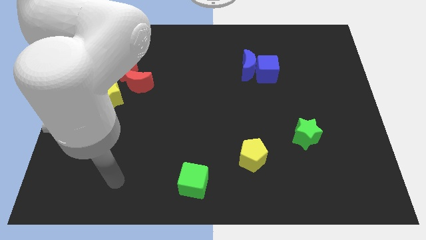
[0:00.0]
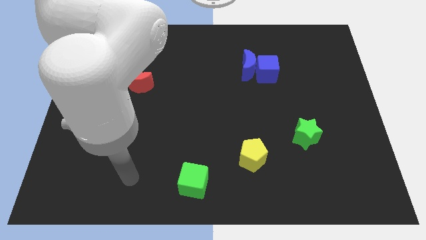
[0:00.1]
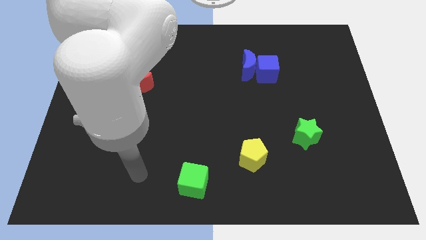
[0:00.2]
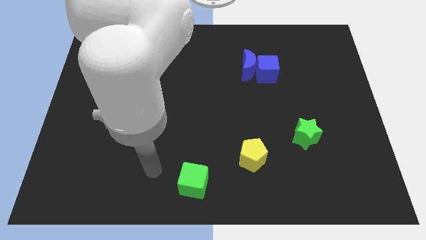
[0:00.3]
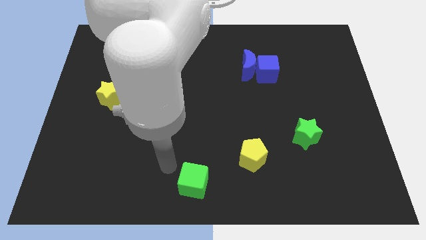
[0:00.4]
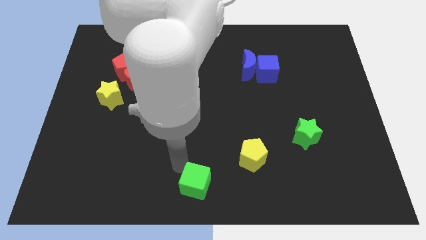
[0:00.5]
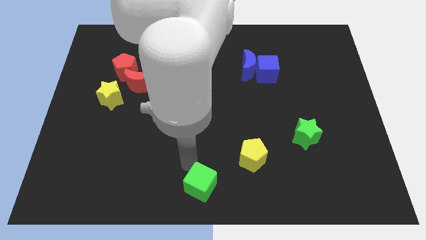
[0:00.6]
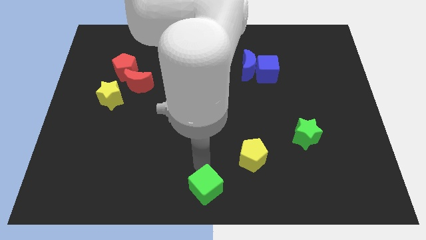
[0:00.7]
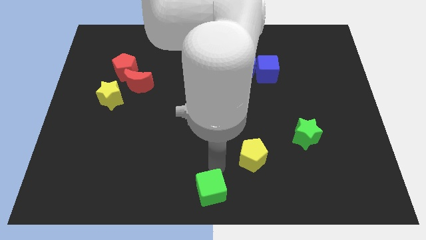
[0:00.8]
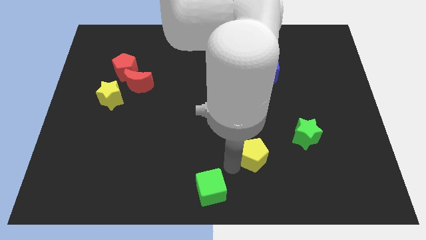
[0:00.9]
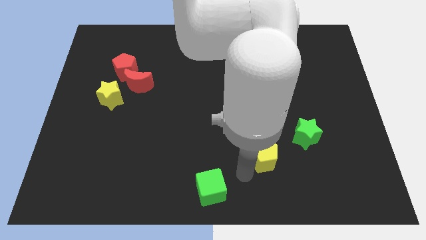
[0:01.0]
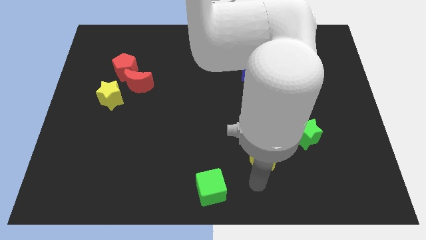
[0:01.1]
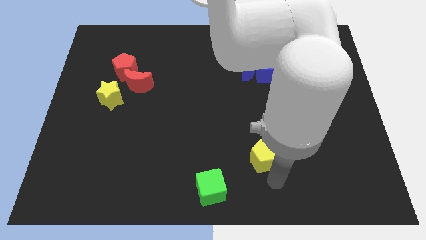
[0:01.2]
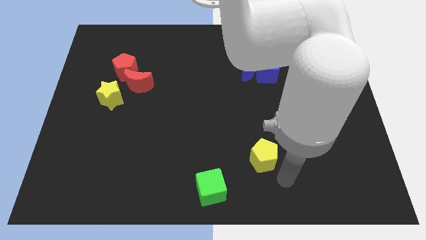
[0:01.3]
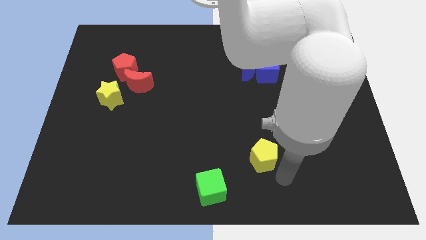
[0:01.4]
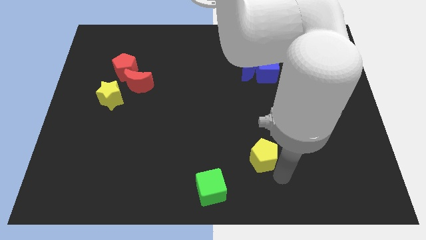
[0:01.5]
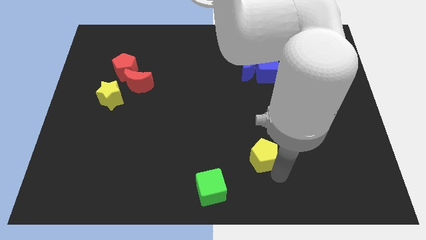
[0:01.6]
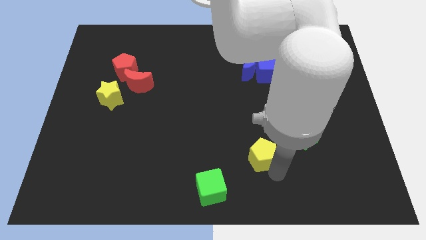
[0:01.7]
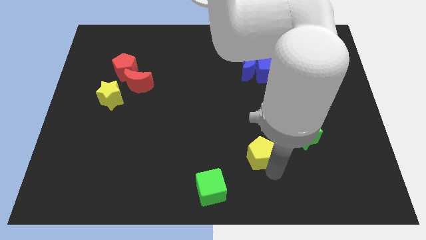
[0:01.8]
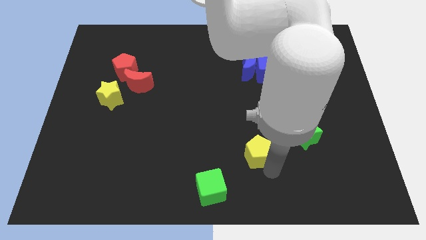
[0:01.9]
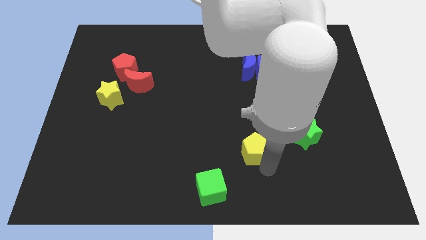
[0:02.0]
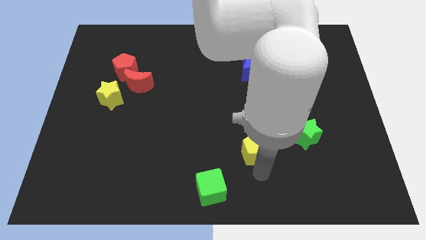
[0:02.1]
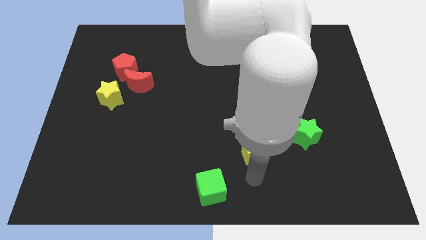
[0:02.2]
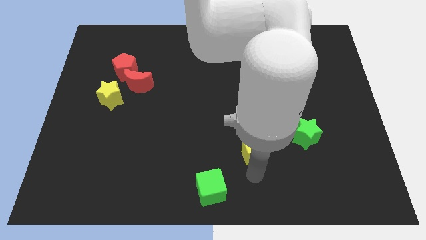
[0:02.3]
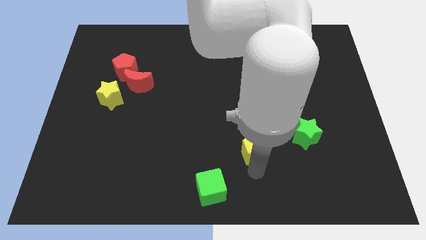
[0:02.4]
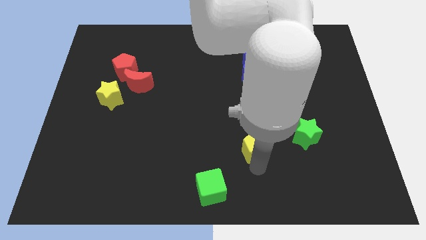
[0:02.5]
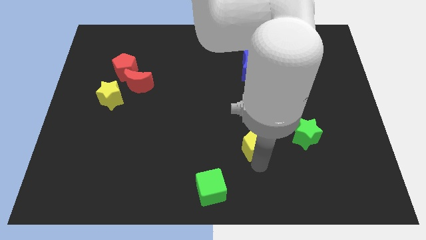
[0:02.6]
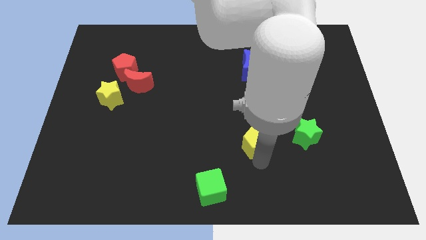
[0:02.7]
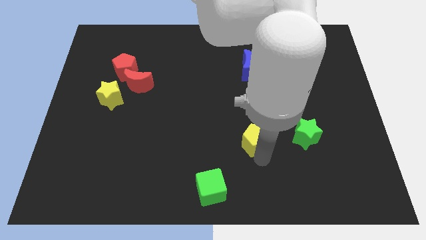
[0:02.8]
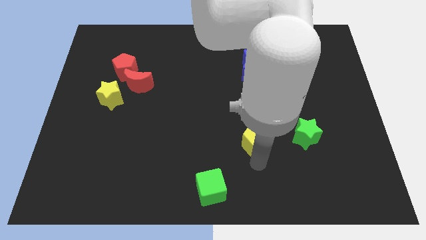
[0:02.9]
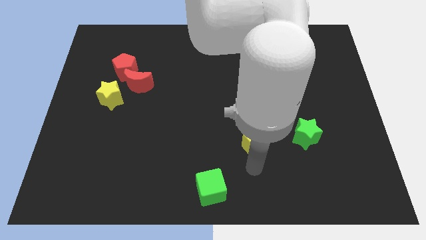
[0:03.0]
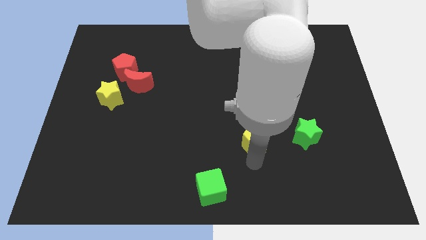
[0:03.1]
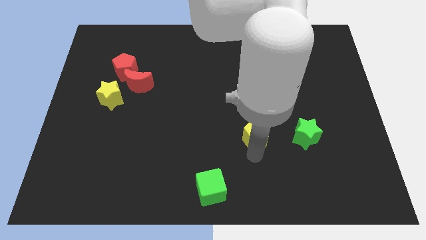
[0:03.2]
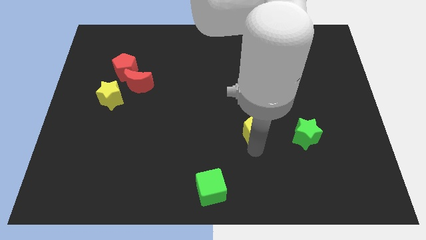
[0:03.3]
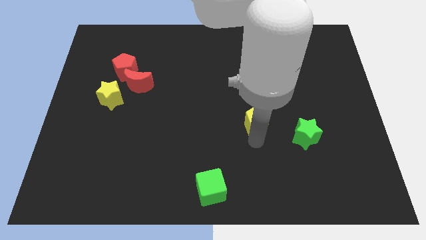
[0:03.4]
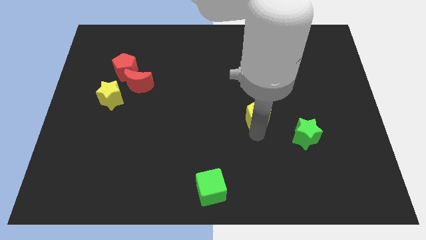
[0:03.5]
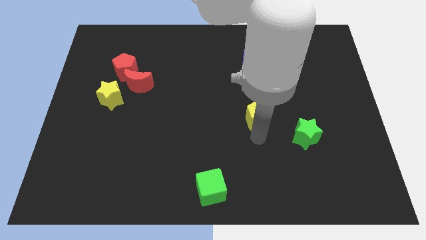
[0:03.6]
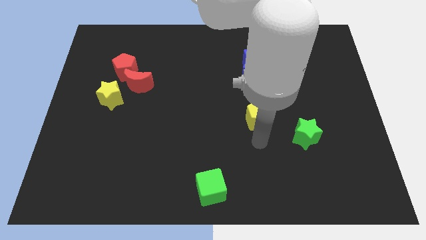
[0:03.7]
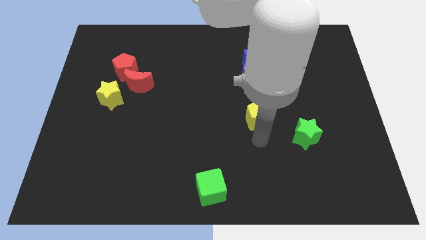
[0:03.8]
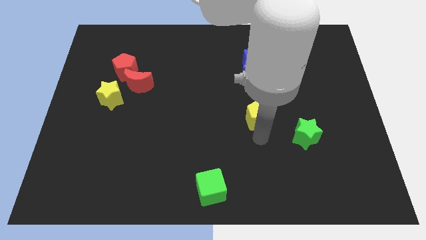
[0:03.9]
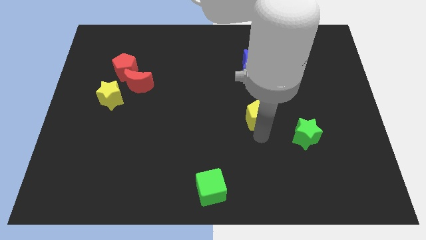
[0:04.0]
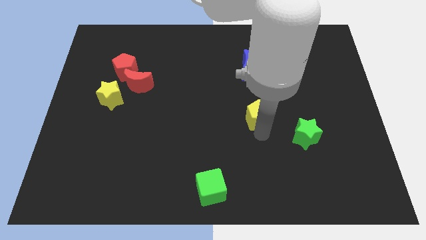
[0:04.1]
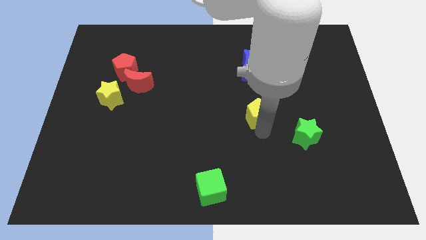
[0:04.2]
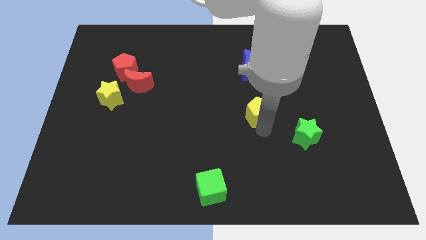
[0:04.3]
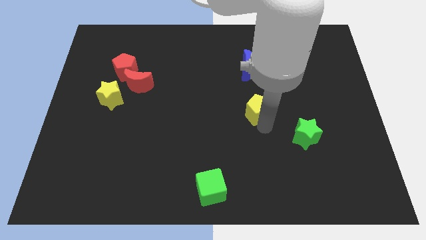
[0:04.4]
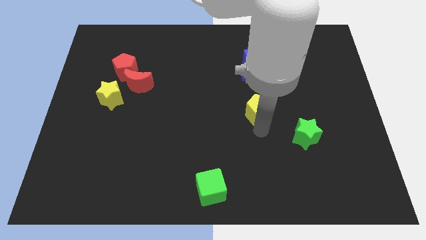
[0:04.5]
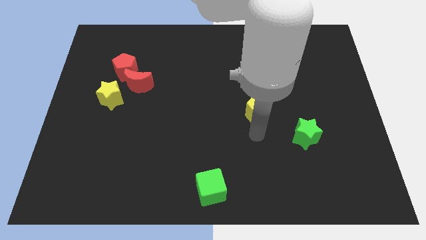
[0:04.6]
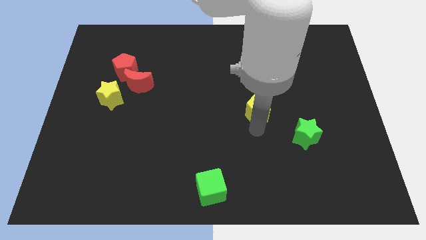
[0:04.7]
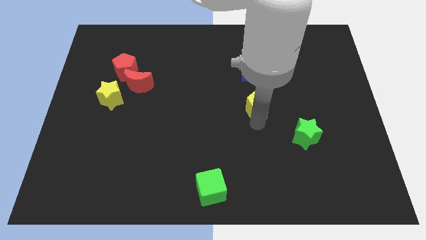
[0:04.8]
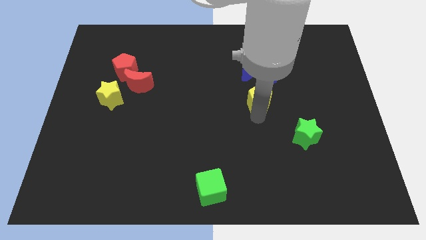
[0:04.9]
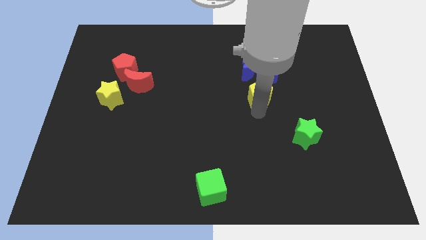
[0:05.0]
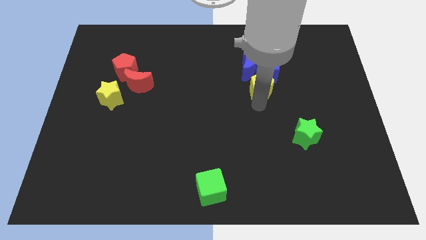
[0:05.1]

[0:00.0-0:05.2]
move the yellow pentagon next to the blue cube
